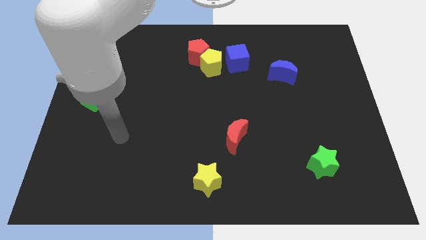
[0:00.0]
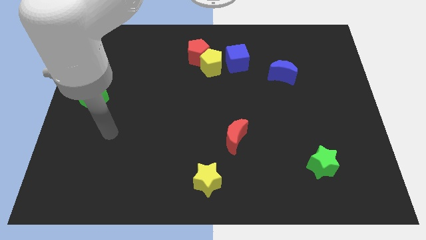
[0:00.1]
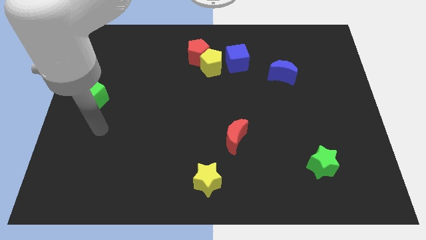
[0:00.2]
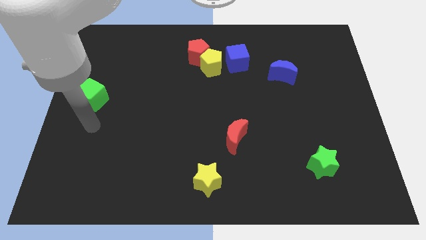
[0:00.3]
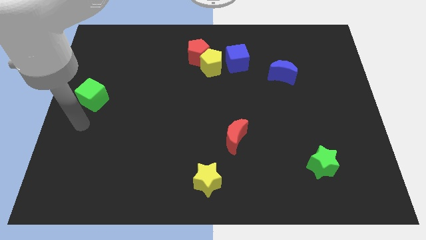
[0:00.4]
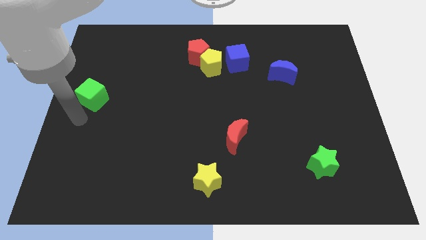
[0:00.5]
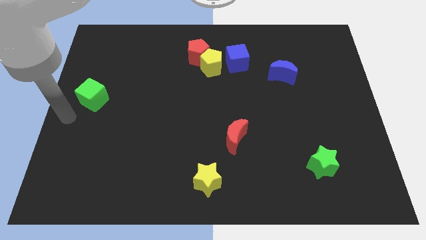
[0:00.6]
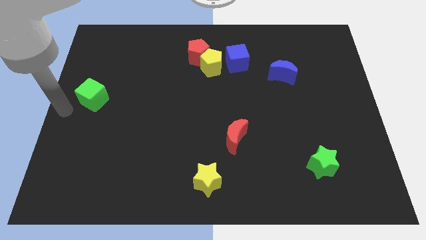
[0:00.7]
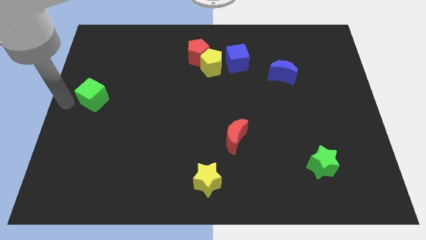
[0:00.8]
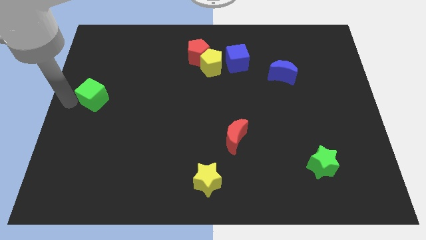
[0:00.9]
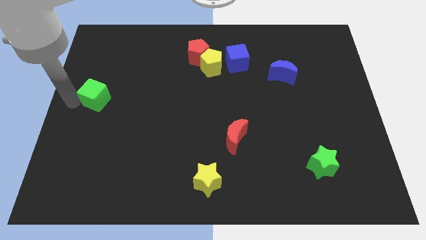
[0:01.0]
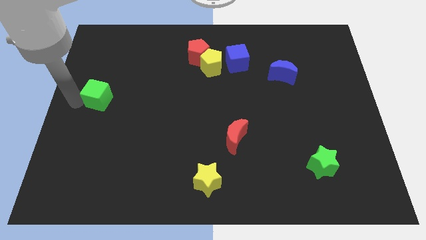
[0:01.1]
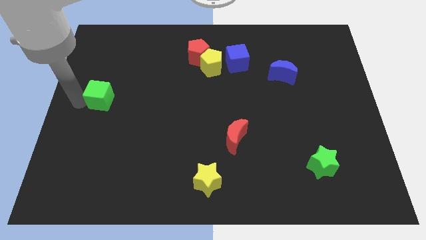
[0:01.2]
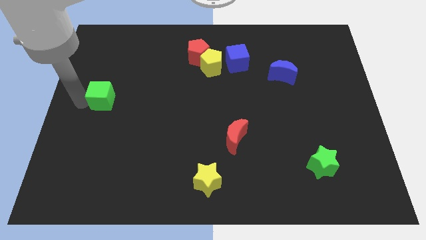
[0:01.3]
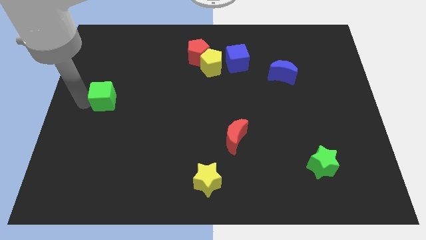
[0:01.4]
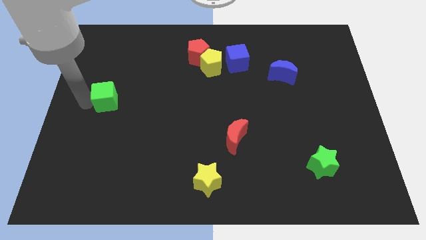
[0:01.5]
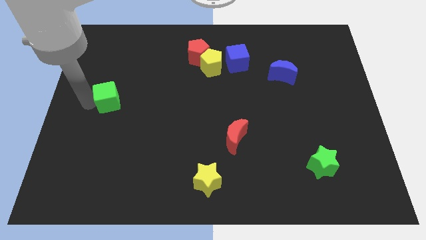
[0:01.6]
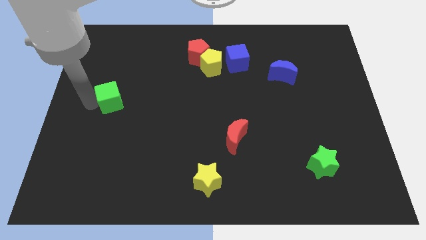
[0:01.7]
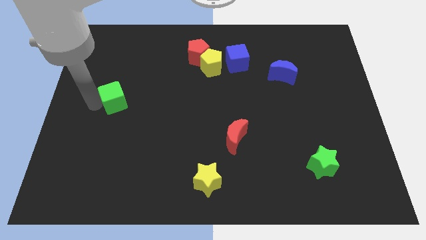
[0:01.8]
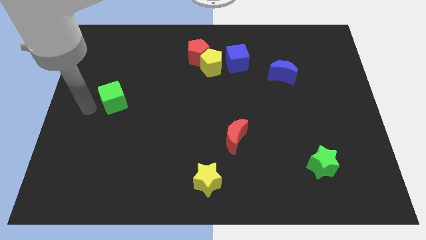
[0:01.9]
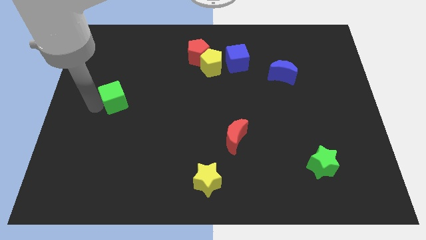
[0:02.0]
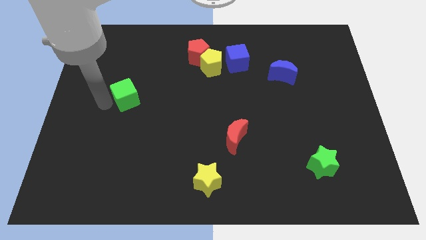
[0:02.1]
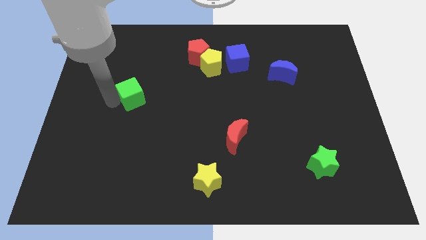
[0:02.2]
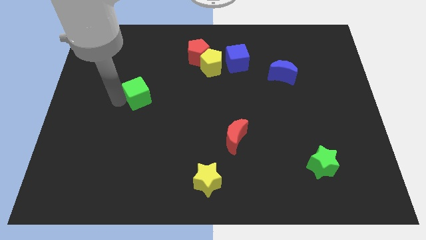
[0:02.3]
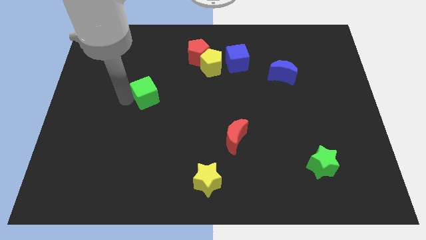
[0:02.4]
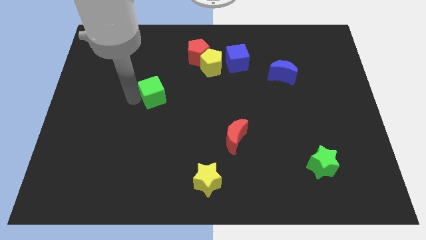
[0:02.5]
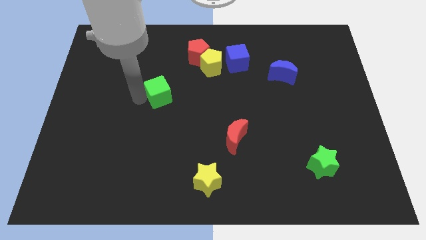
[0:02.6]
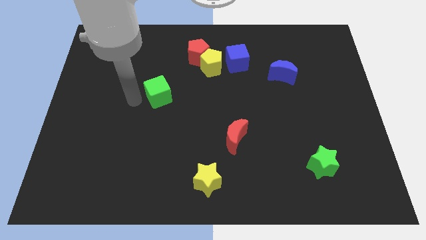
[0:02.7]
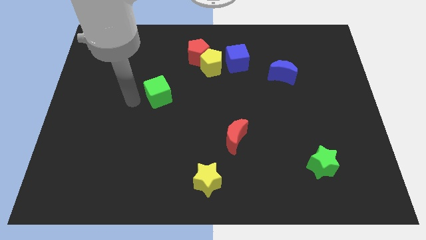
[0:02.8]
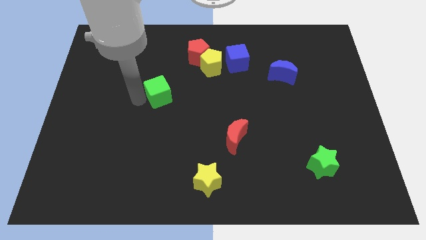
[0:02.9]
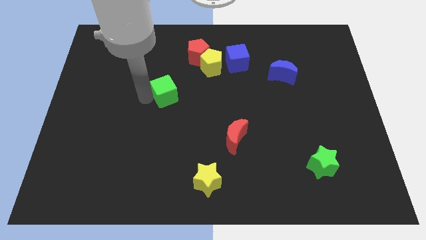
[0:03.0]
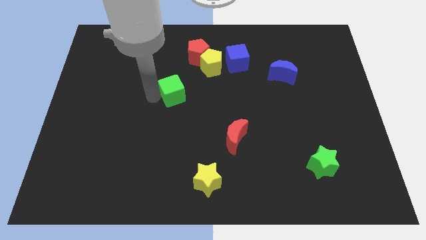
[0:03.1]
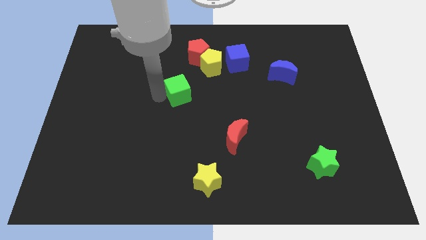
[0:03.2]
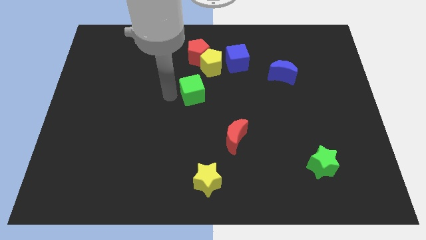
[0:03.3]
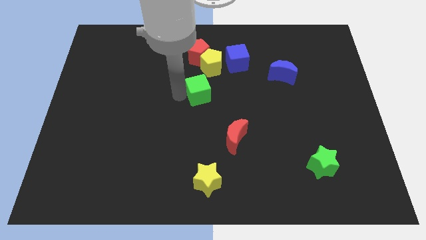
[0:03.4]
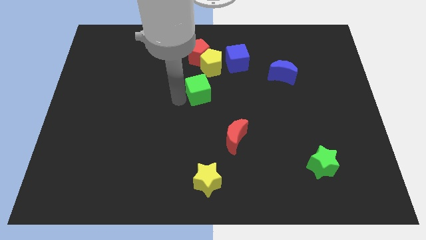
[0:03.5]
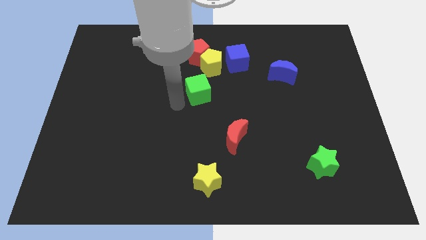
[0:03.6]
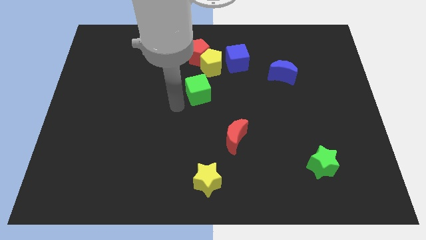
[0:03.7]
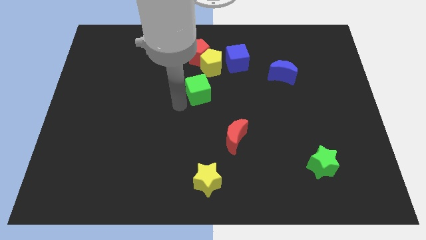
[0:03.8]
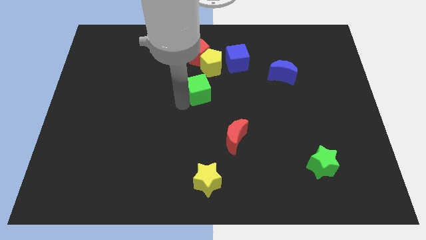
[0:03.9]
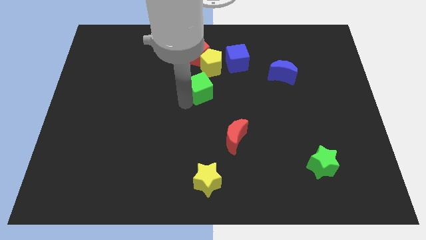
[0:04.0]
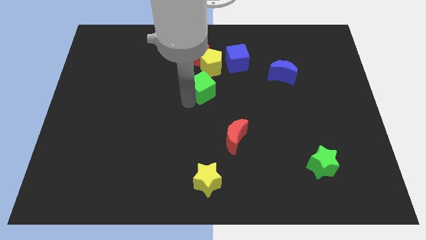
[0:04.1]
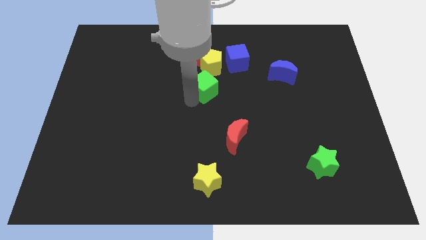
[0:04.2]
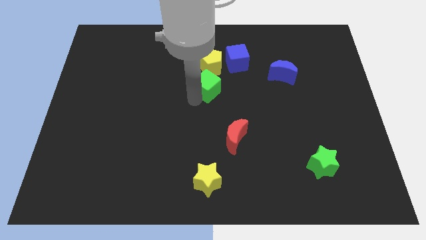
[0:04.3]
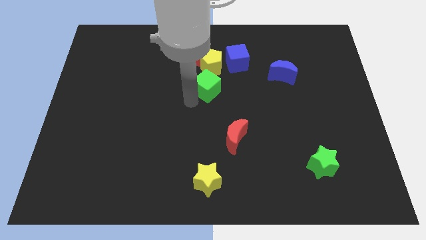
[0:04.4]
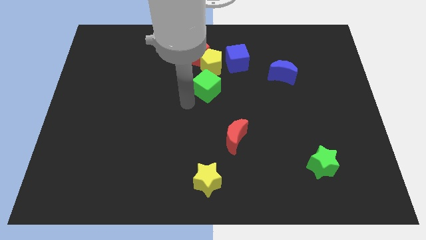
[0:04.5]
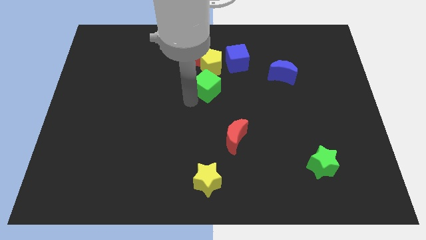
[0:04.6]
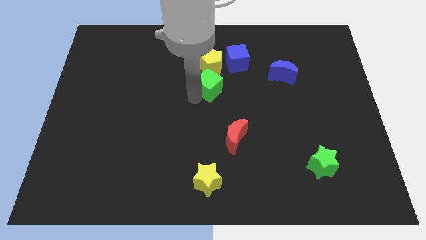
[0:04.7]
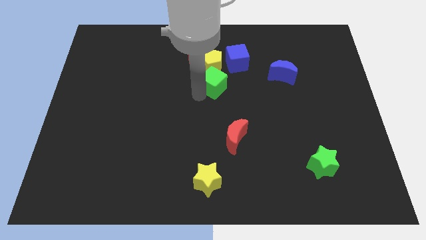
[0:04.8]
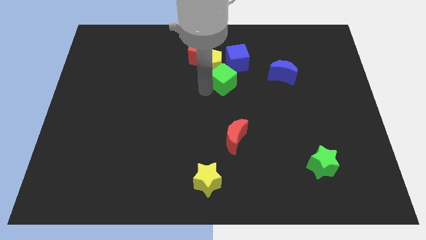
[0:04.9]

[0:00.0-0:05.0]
push the green cube to the left side of the blue moon

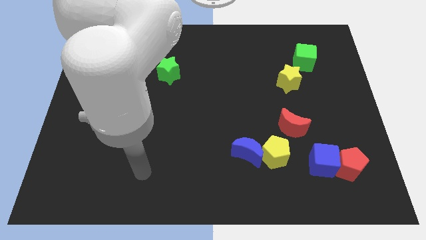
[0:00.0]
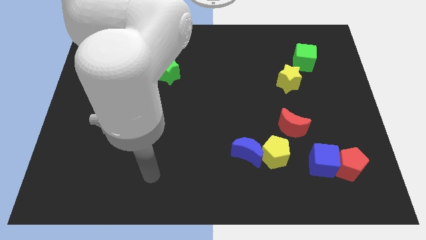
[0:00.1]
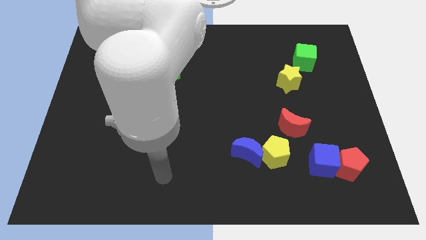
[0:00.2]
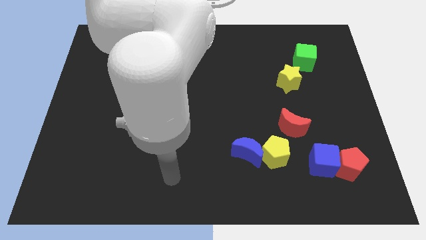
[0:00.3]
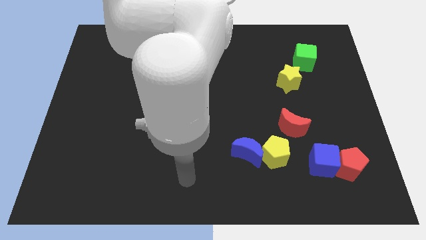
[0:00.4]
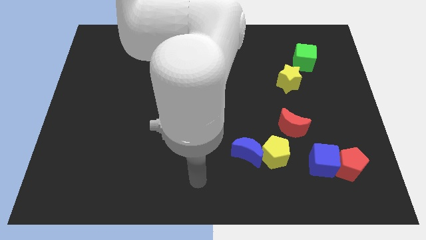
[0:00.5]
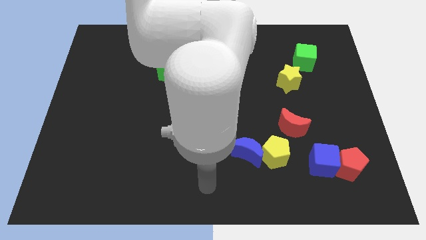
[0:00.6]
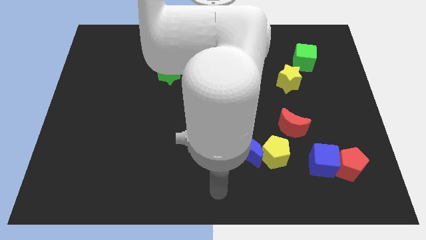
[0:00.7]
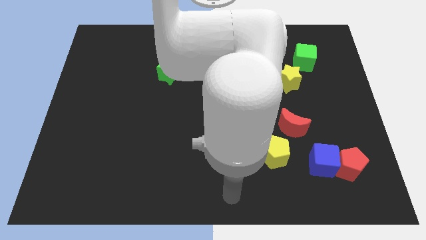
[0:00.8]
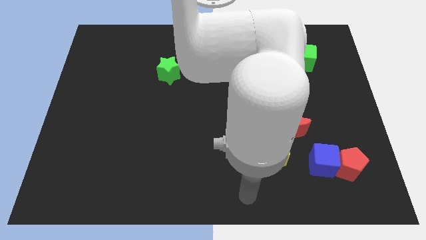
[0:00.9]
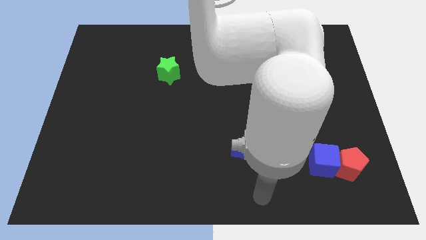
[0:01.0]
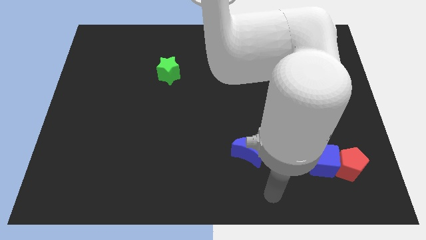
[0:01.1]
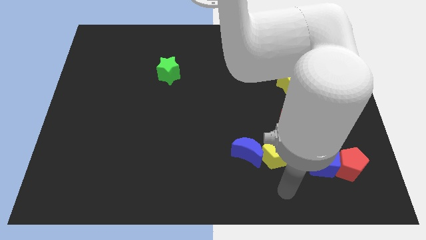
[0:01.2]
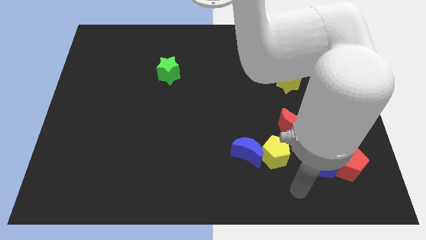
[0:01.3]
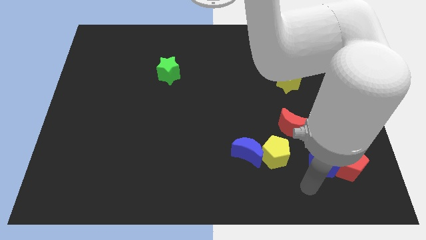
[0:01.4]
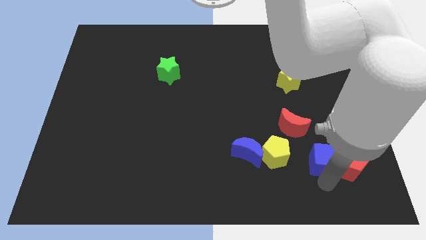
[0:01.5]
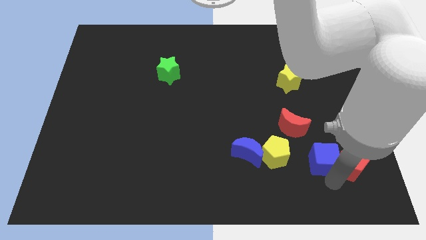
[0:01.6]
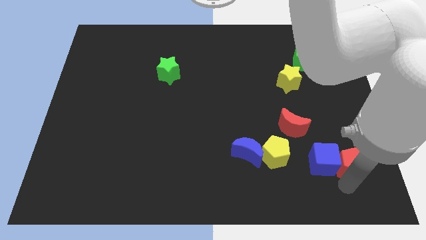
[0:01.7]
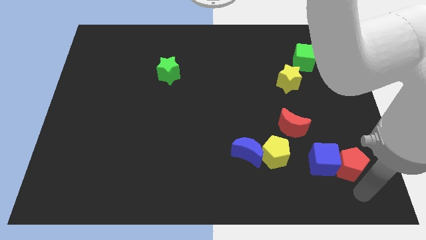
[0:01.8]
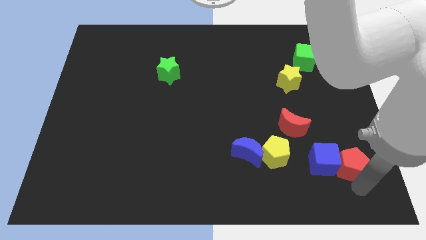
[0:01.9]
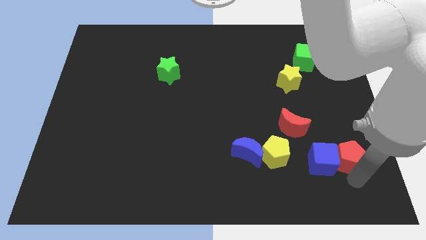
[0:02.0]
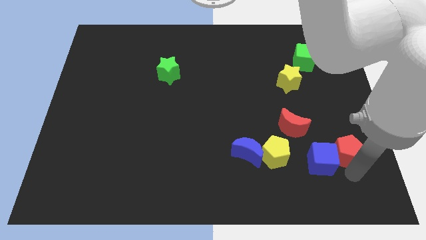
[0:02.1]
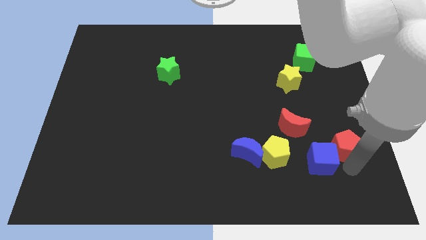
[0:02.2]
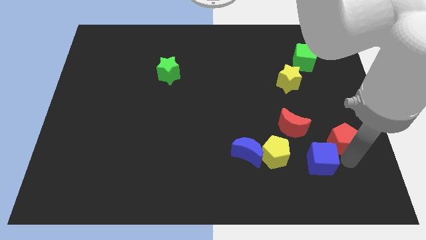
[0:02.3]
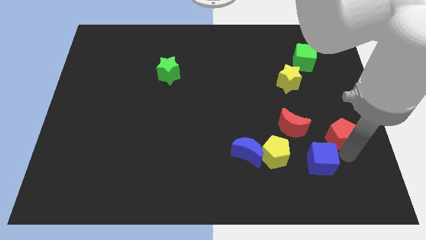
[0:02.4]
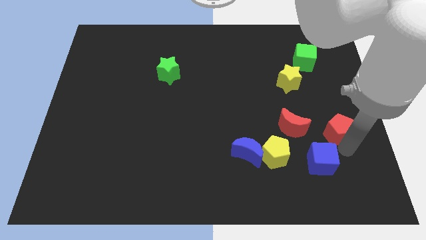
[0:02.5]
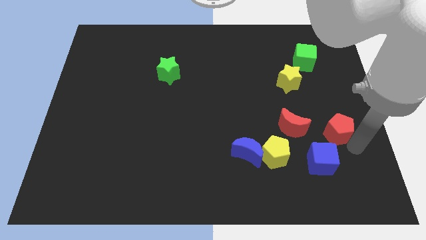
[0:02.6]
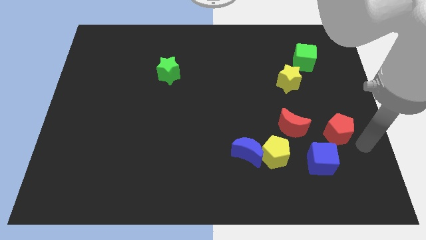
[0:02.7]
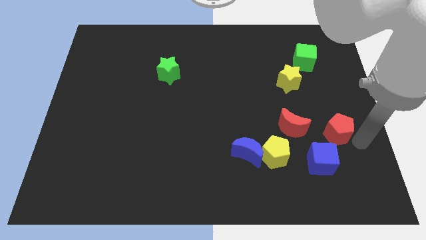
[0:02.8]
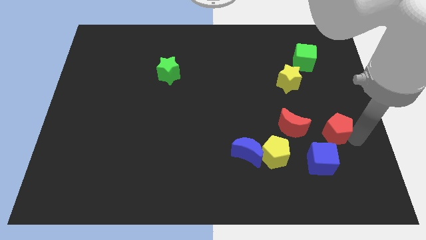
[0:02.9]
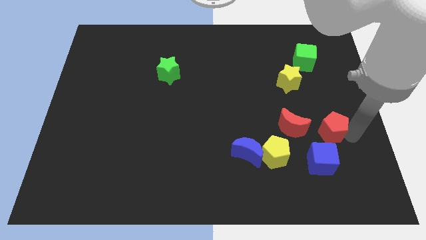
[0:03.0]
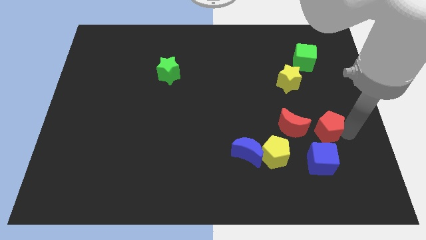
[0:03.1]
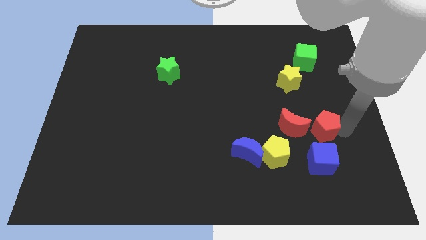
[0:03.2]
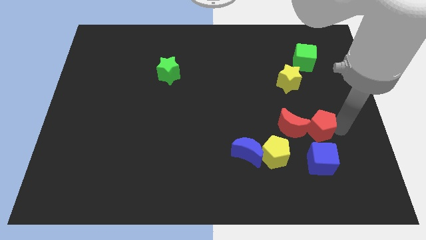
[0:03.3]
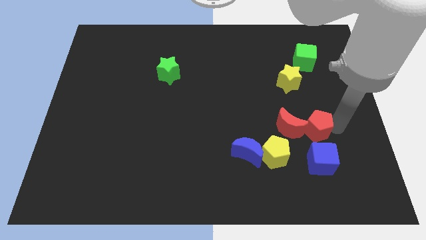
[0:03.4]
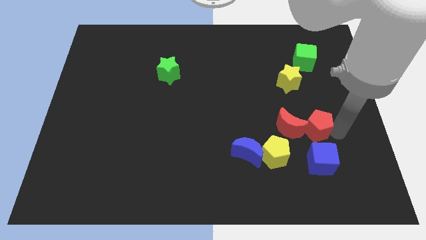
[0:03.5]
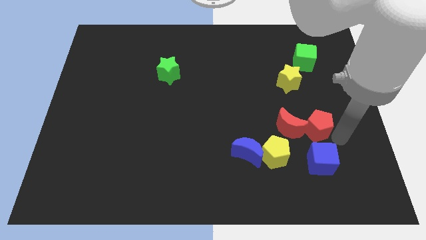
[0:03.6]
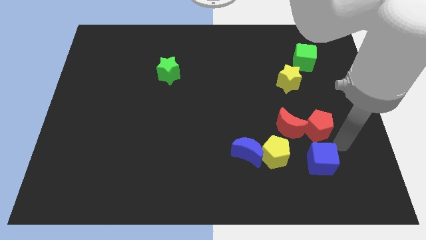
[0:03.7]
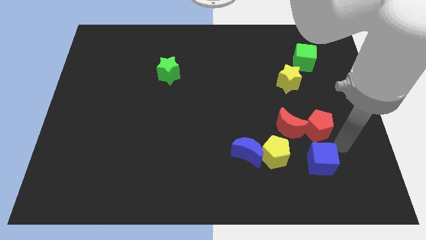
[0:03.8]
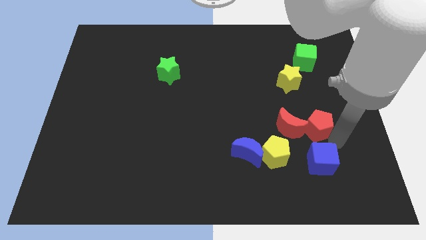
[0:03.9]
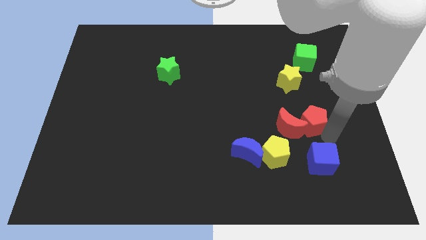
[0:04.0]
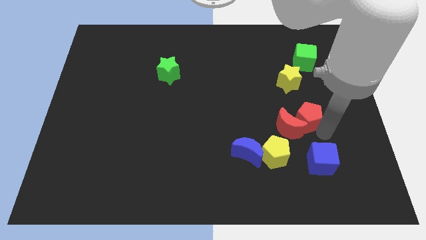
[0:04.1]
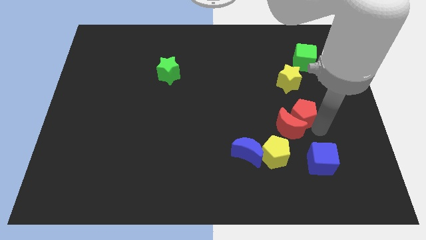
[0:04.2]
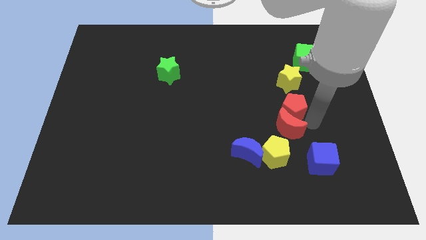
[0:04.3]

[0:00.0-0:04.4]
put the red pentagon to the top left of the red moon
